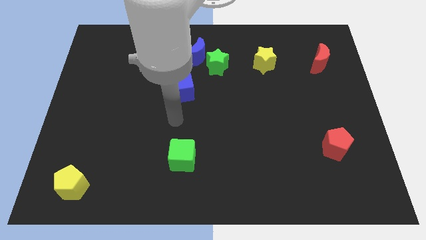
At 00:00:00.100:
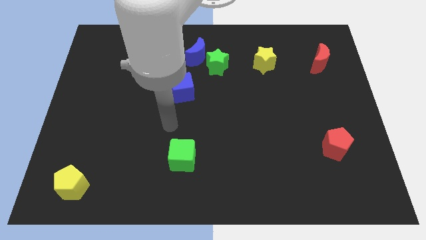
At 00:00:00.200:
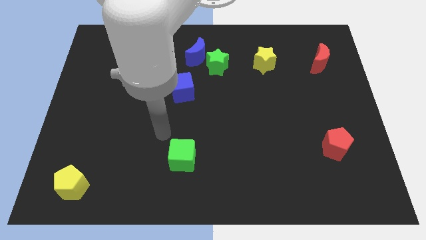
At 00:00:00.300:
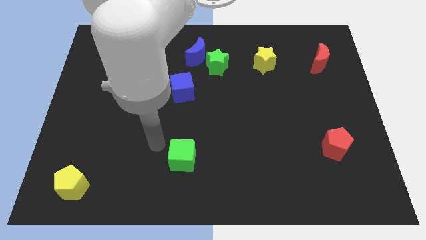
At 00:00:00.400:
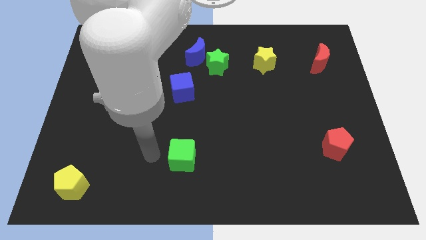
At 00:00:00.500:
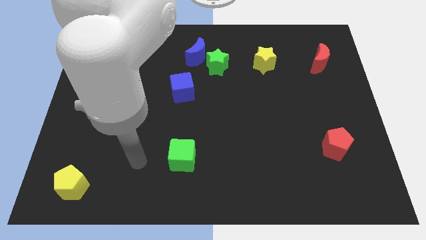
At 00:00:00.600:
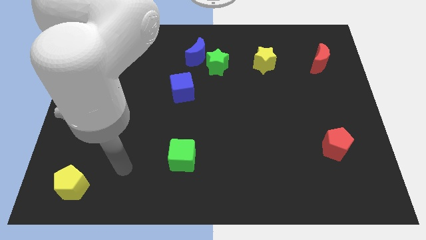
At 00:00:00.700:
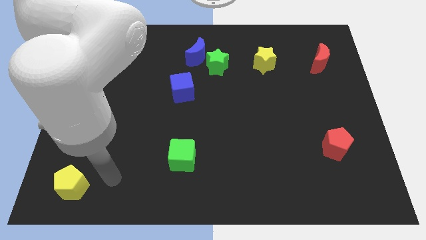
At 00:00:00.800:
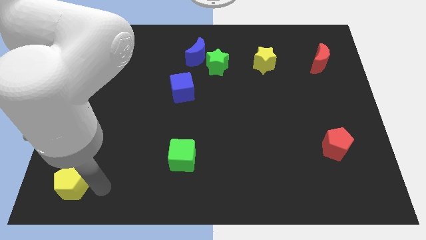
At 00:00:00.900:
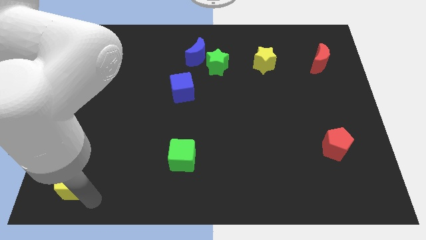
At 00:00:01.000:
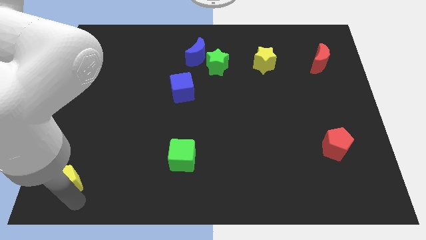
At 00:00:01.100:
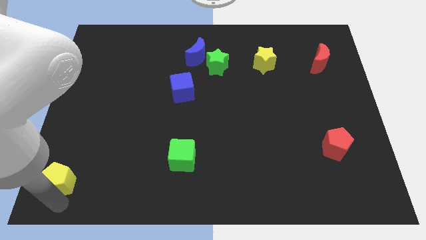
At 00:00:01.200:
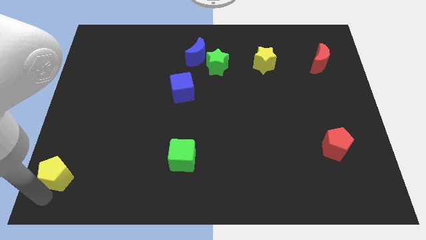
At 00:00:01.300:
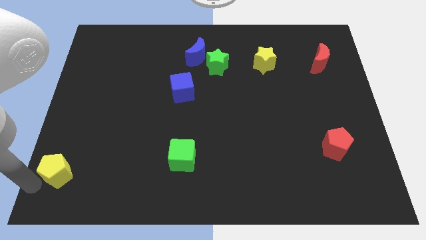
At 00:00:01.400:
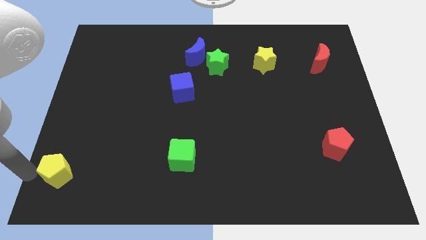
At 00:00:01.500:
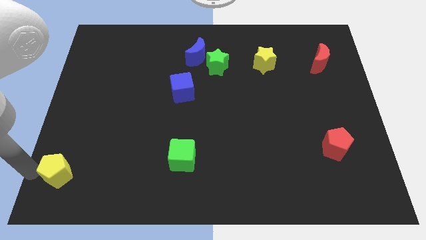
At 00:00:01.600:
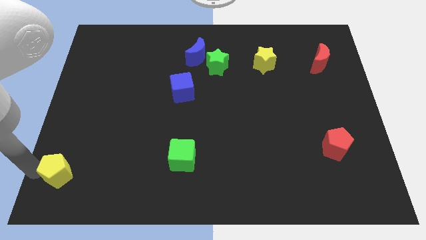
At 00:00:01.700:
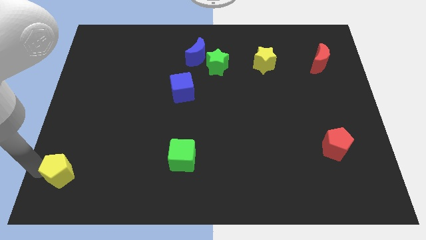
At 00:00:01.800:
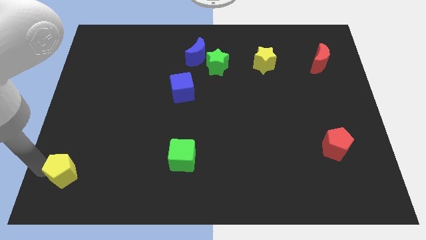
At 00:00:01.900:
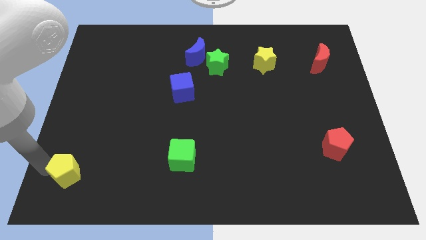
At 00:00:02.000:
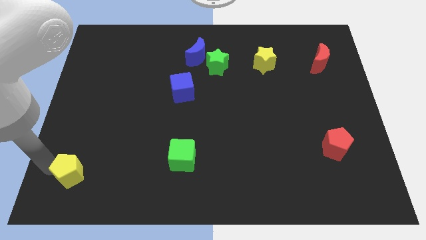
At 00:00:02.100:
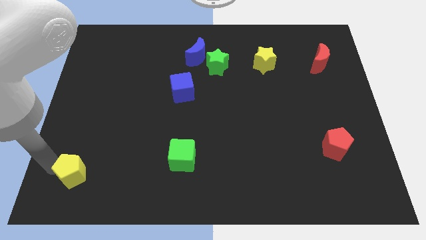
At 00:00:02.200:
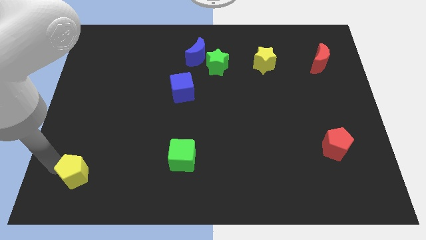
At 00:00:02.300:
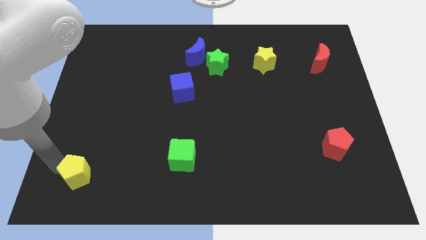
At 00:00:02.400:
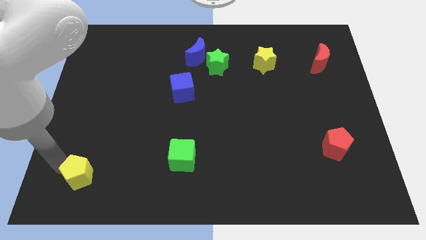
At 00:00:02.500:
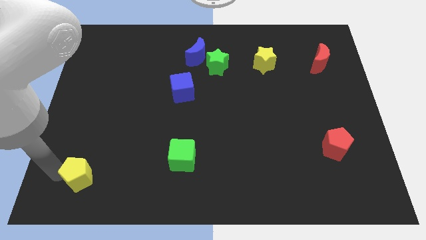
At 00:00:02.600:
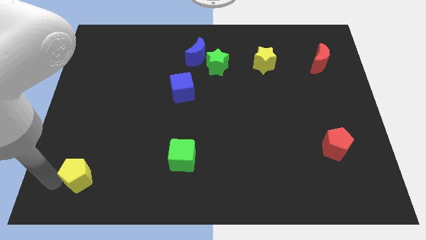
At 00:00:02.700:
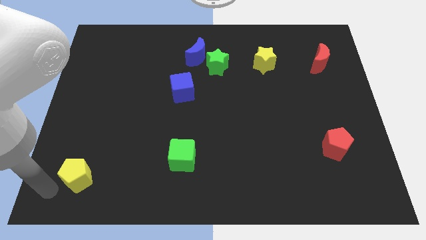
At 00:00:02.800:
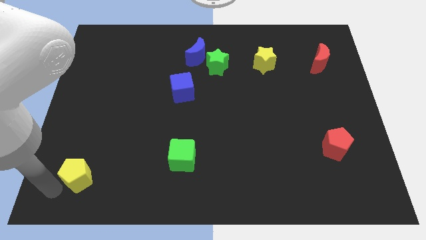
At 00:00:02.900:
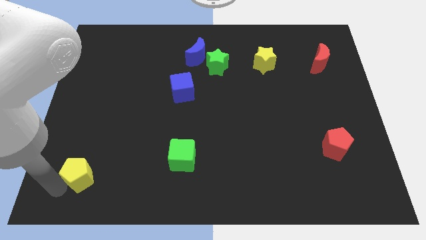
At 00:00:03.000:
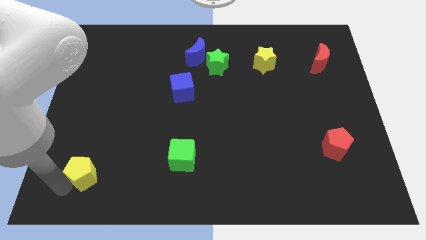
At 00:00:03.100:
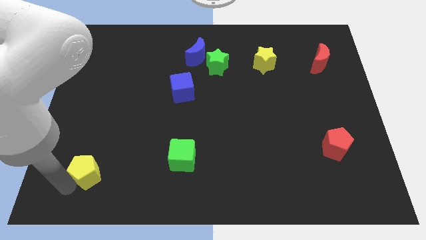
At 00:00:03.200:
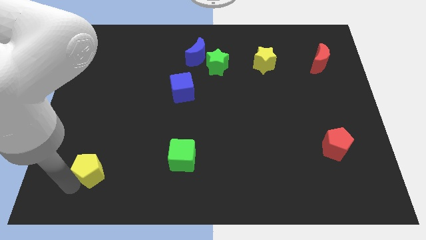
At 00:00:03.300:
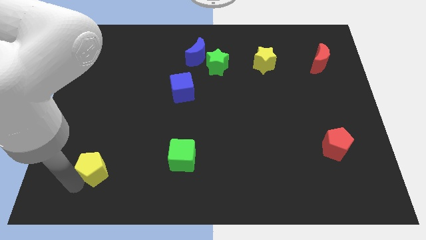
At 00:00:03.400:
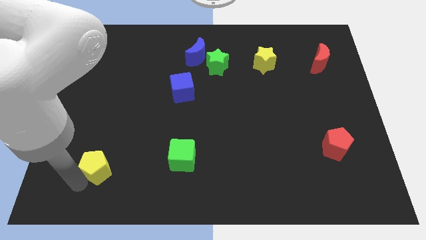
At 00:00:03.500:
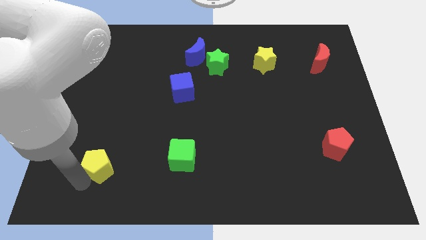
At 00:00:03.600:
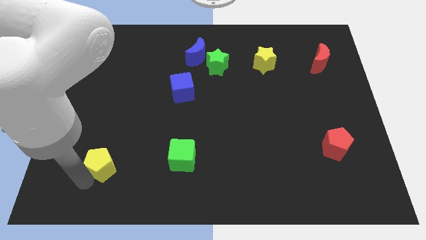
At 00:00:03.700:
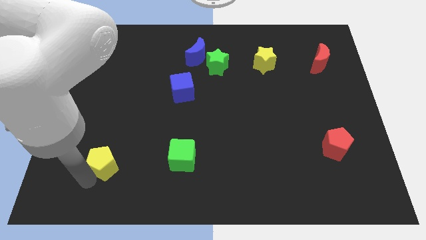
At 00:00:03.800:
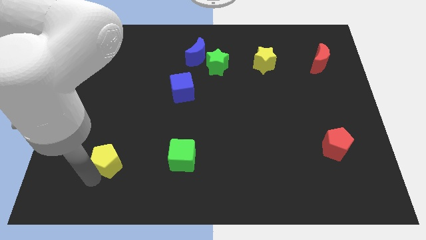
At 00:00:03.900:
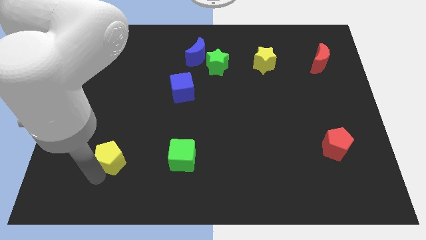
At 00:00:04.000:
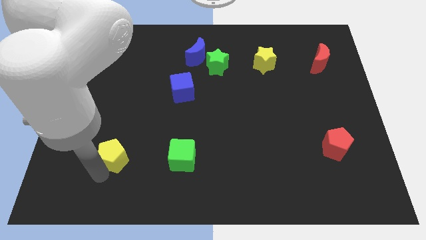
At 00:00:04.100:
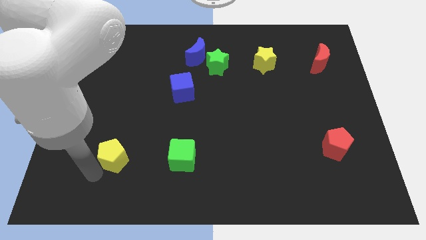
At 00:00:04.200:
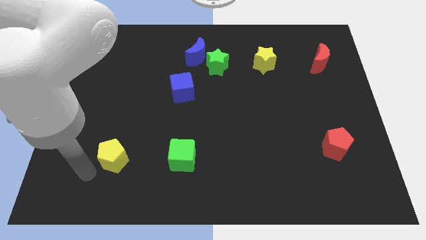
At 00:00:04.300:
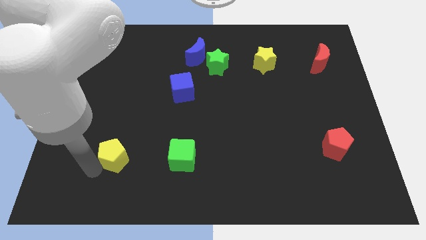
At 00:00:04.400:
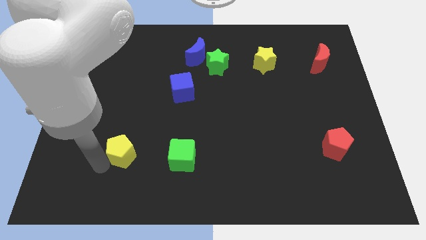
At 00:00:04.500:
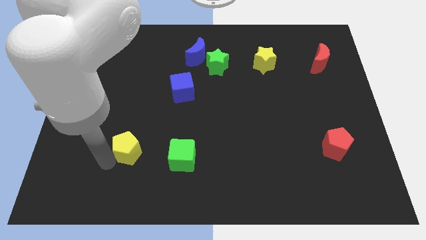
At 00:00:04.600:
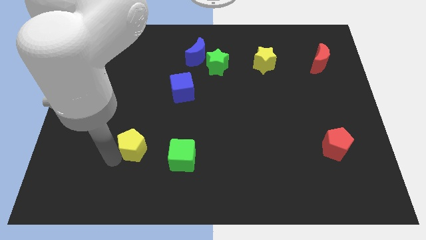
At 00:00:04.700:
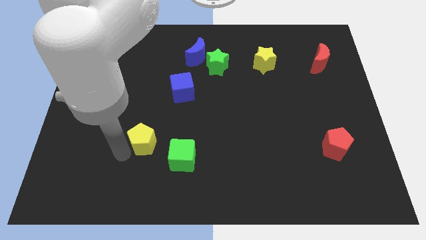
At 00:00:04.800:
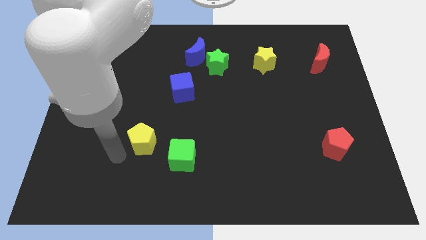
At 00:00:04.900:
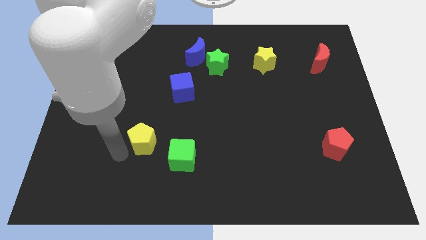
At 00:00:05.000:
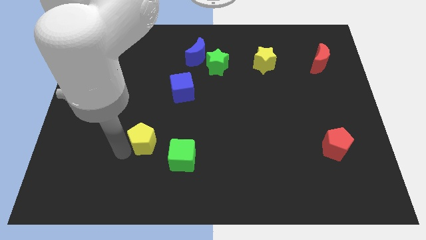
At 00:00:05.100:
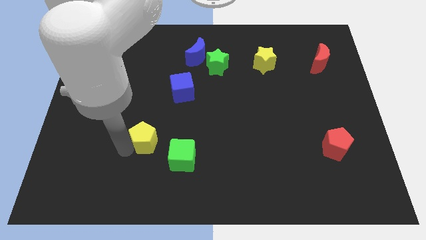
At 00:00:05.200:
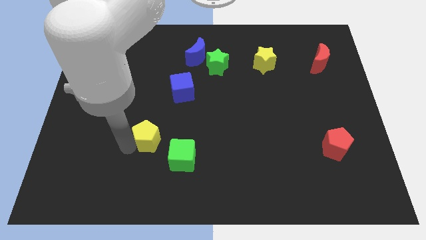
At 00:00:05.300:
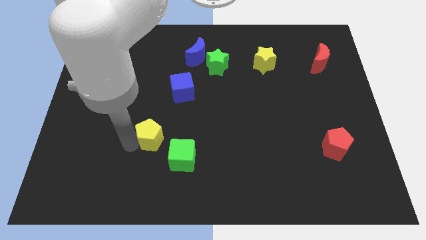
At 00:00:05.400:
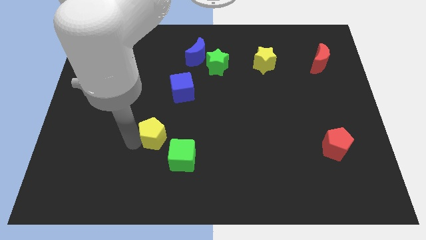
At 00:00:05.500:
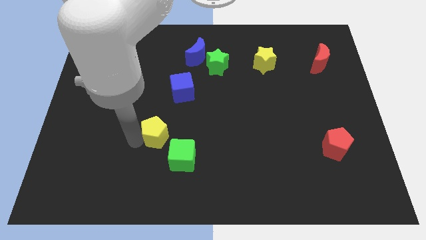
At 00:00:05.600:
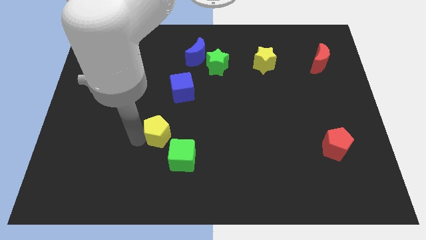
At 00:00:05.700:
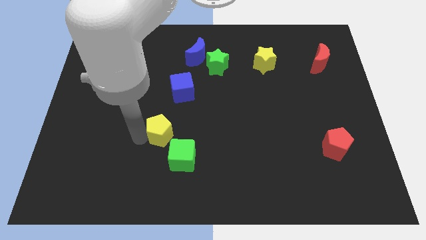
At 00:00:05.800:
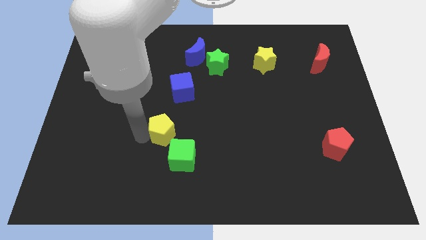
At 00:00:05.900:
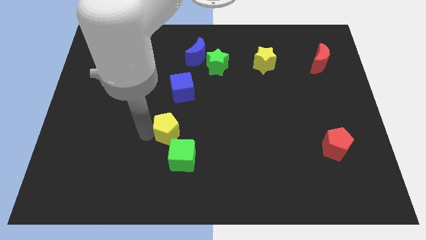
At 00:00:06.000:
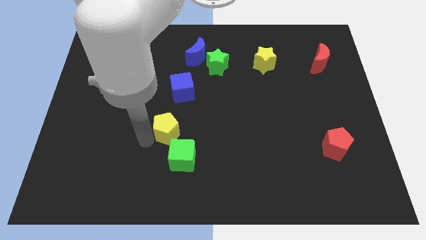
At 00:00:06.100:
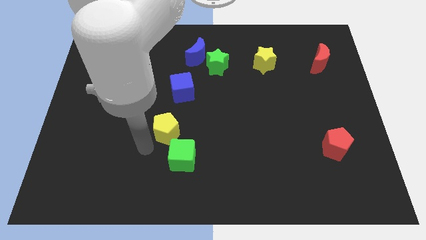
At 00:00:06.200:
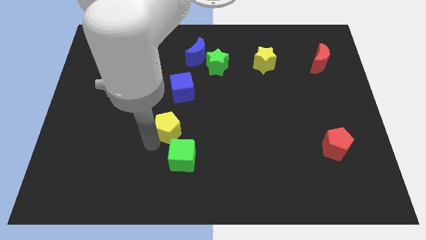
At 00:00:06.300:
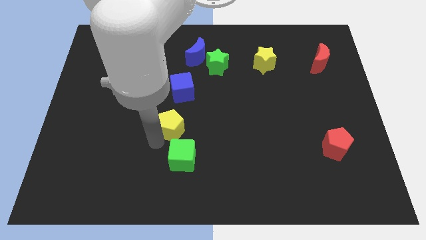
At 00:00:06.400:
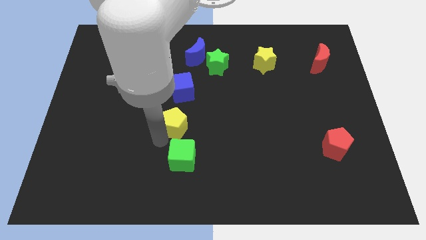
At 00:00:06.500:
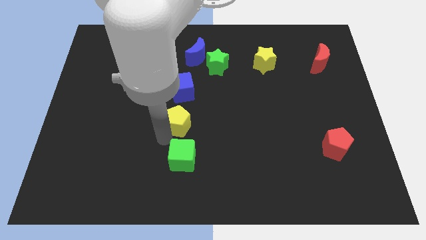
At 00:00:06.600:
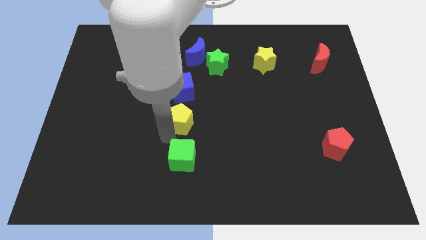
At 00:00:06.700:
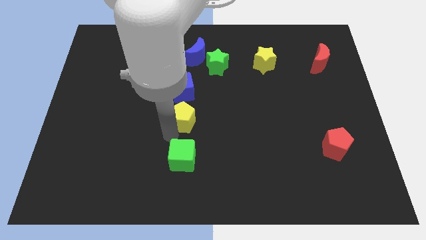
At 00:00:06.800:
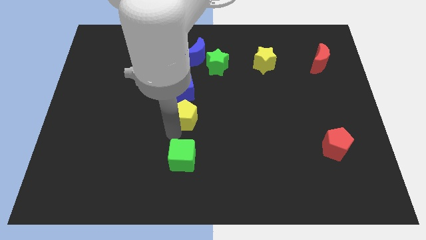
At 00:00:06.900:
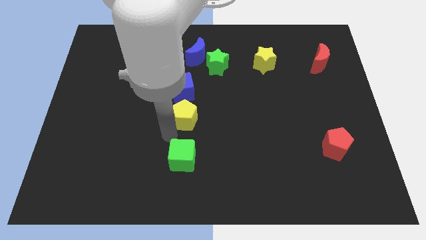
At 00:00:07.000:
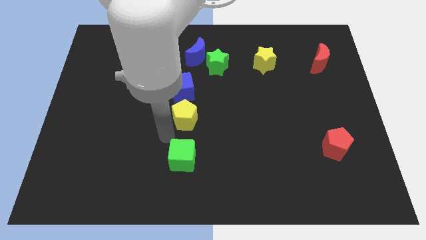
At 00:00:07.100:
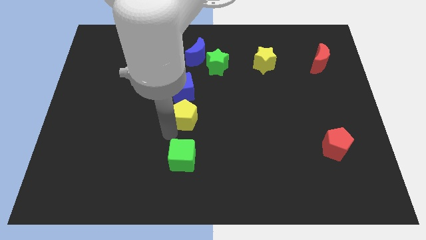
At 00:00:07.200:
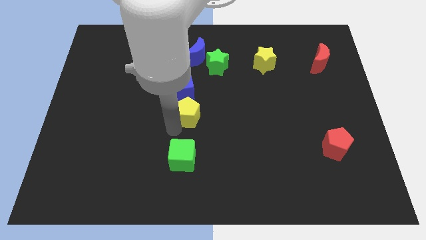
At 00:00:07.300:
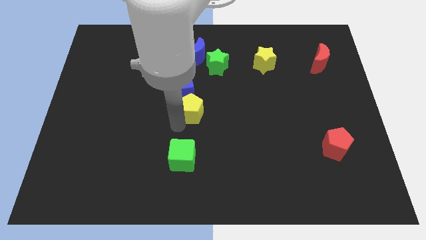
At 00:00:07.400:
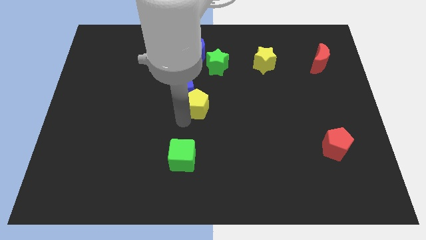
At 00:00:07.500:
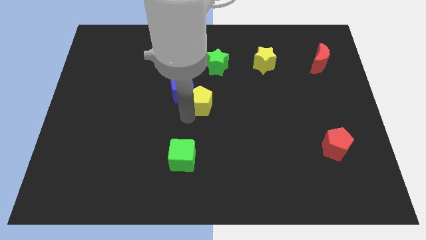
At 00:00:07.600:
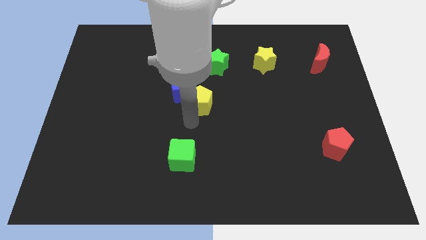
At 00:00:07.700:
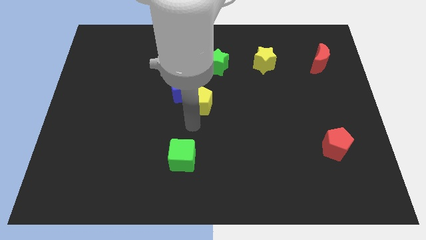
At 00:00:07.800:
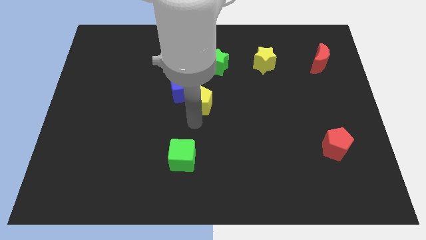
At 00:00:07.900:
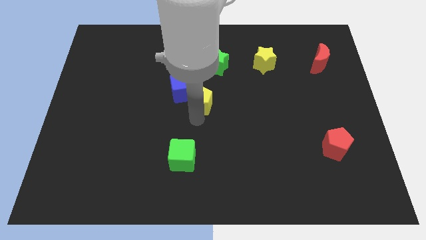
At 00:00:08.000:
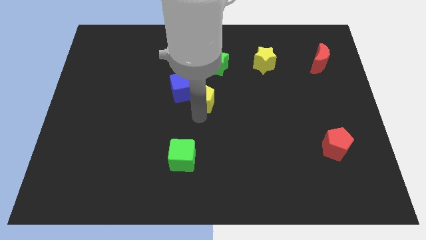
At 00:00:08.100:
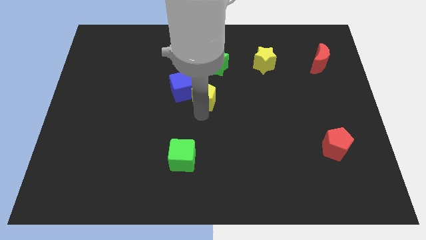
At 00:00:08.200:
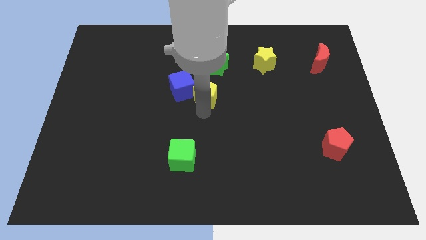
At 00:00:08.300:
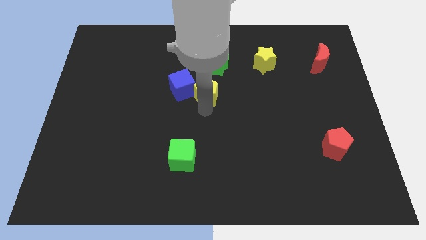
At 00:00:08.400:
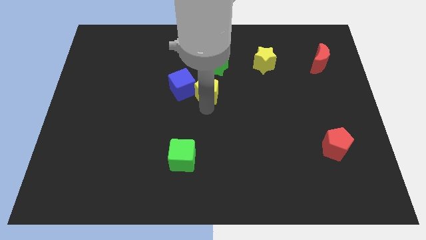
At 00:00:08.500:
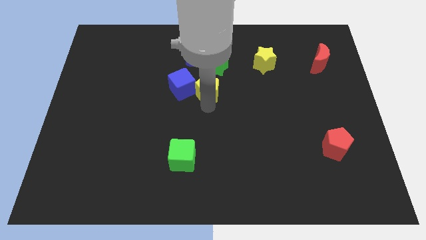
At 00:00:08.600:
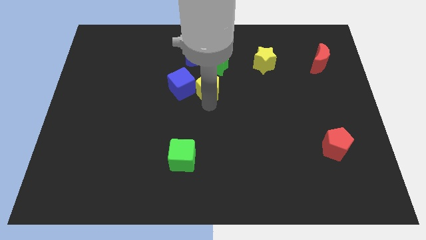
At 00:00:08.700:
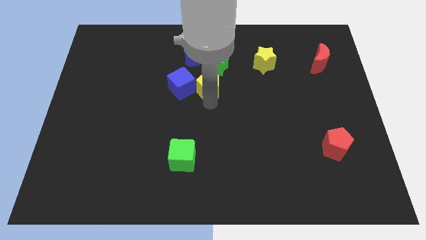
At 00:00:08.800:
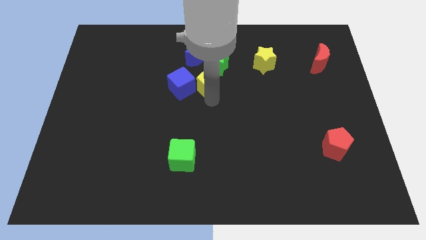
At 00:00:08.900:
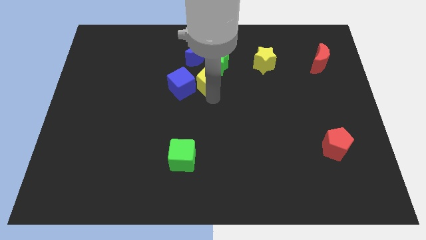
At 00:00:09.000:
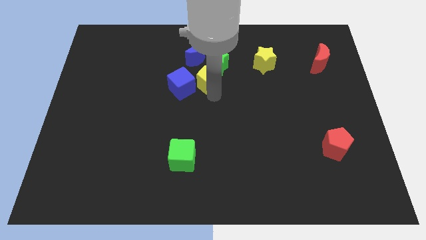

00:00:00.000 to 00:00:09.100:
move the yellow pentagon towards the green star
